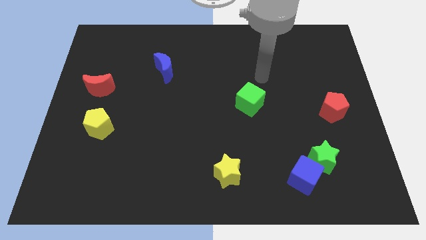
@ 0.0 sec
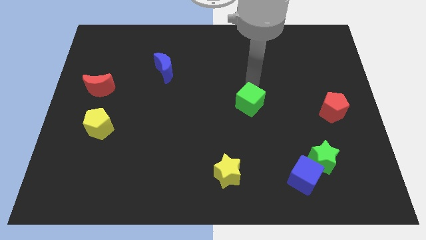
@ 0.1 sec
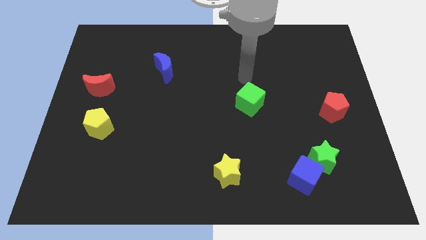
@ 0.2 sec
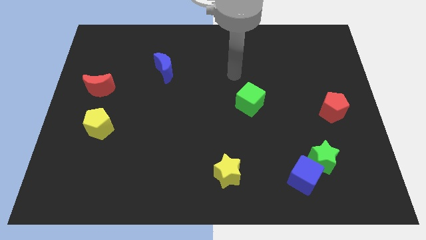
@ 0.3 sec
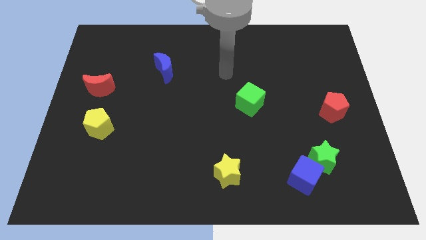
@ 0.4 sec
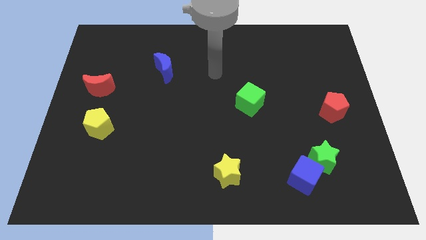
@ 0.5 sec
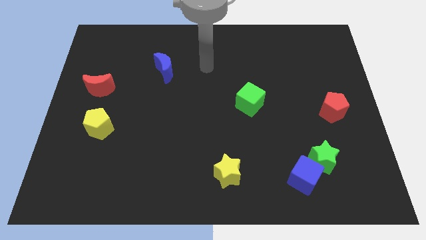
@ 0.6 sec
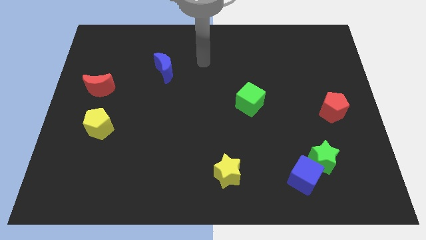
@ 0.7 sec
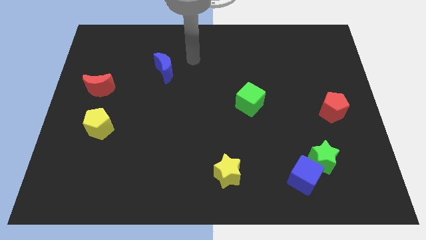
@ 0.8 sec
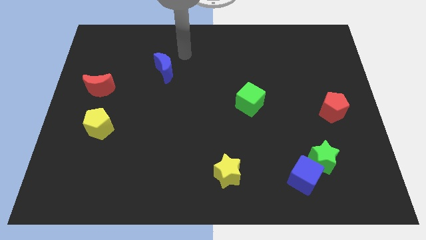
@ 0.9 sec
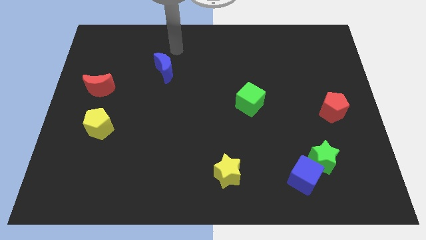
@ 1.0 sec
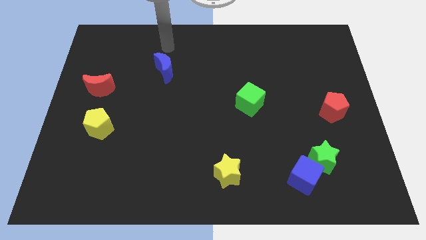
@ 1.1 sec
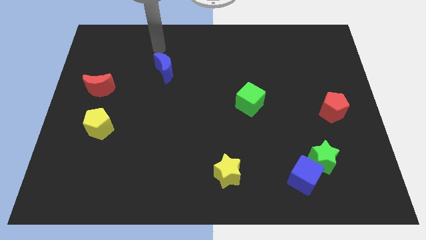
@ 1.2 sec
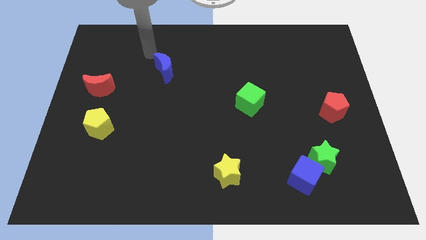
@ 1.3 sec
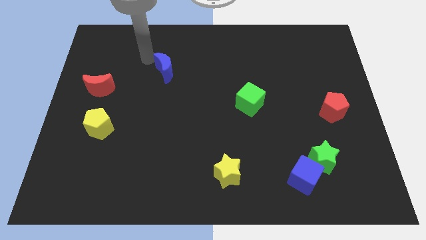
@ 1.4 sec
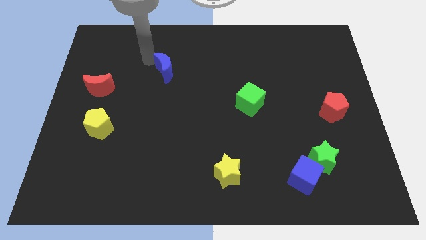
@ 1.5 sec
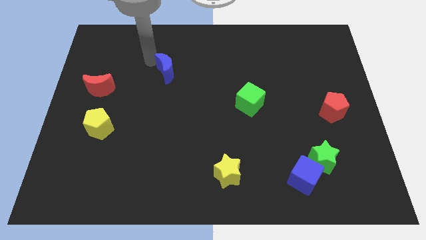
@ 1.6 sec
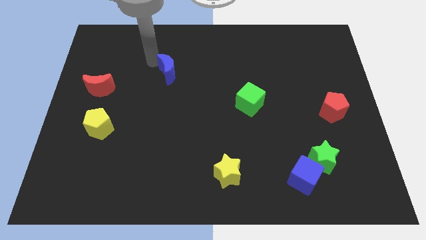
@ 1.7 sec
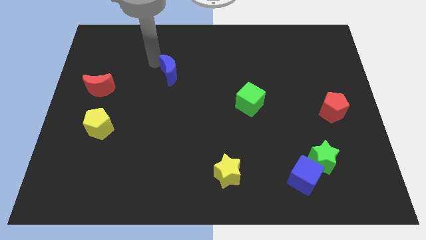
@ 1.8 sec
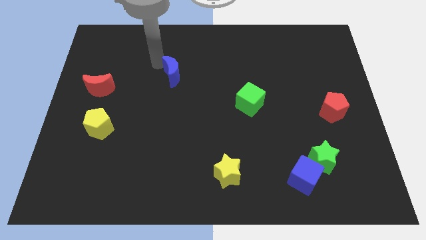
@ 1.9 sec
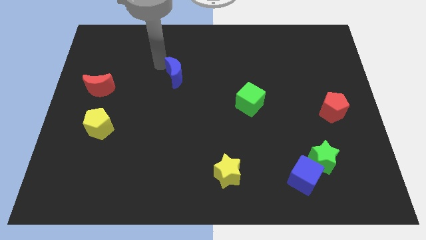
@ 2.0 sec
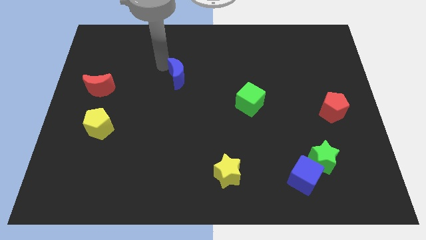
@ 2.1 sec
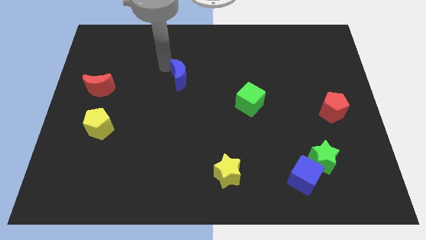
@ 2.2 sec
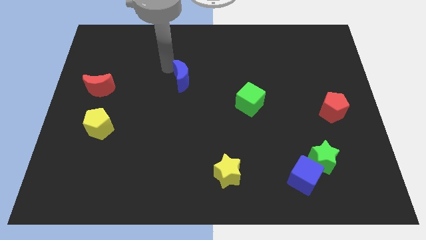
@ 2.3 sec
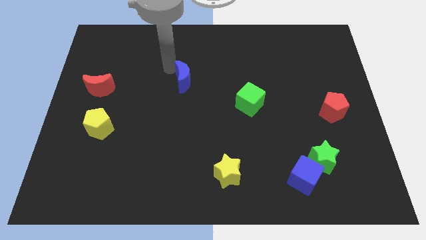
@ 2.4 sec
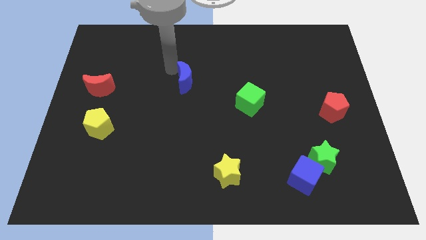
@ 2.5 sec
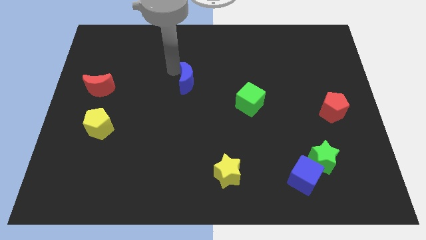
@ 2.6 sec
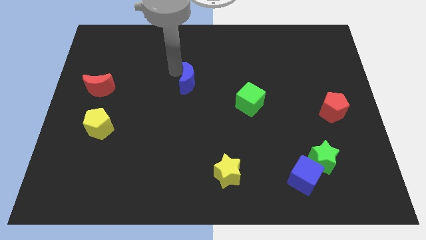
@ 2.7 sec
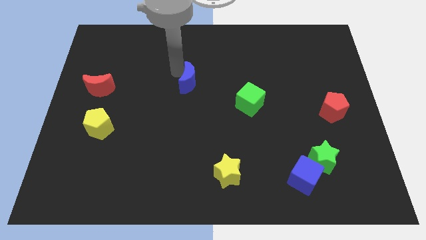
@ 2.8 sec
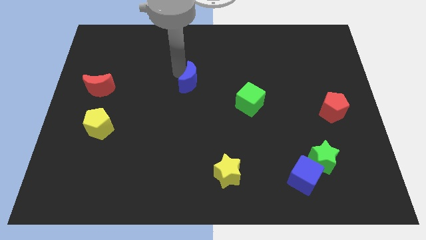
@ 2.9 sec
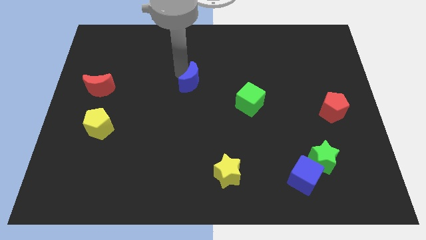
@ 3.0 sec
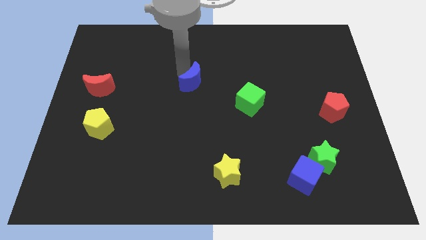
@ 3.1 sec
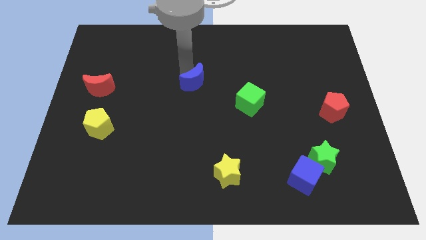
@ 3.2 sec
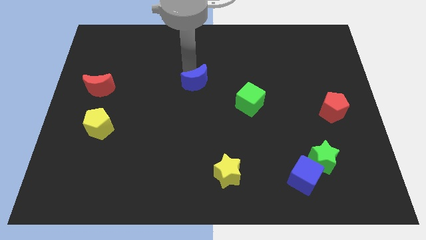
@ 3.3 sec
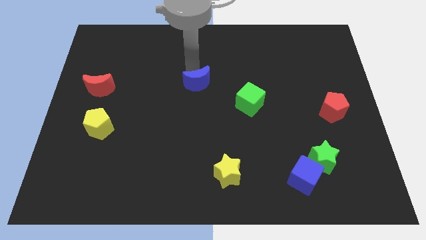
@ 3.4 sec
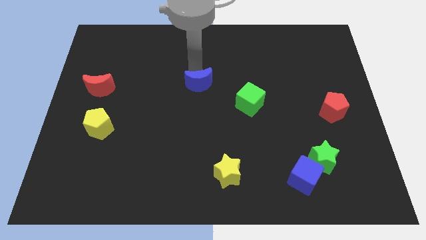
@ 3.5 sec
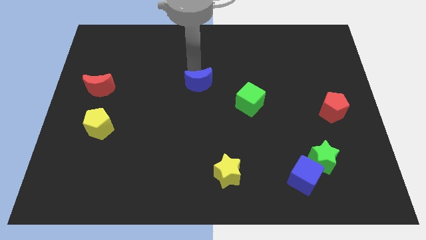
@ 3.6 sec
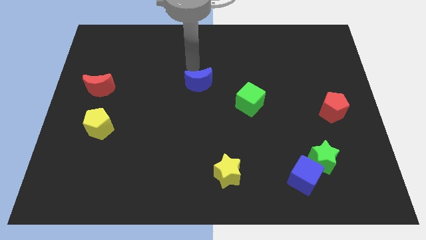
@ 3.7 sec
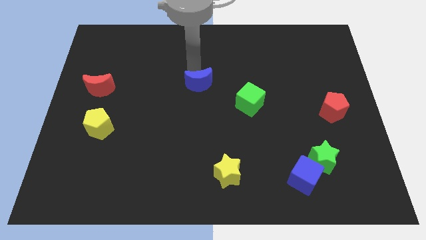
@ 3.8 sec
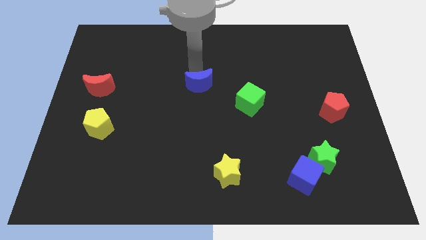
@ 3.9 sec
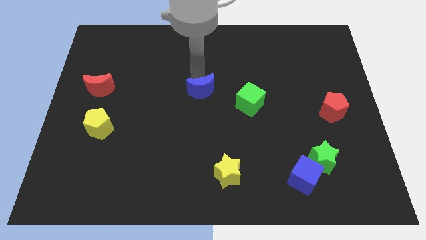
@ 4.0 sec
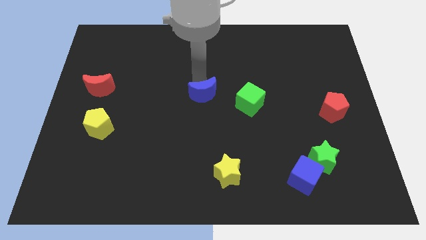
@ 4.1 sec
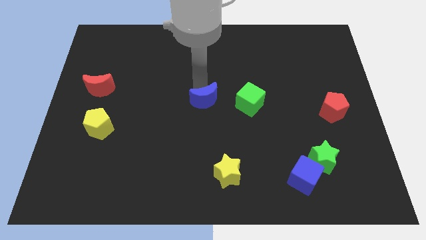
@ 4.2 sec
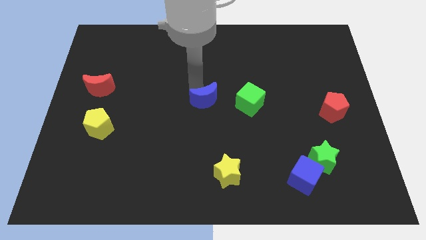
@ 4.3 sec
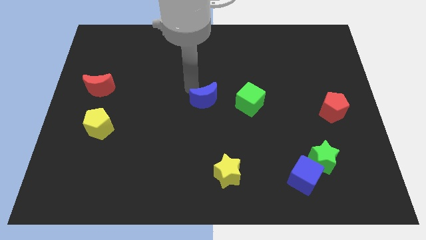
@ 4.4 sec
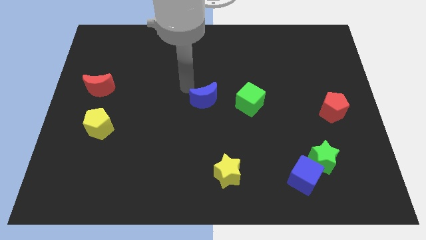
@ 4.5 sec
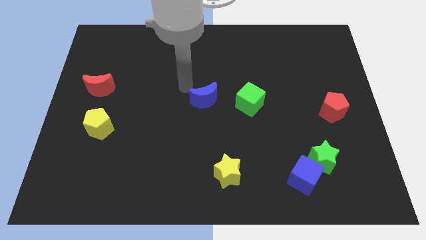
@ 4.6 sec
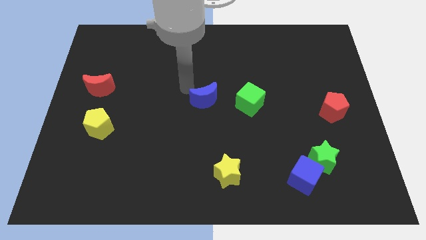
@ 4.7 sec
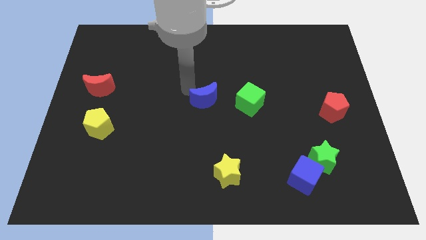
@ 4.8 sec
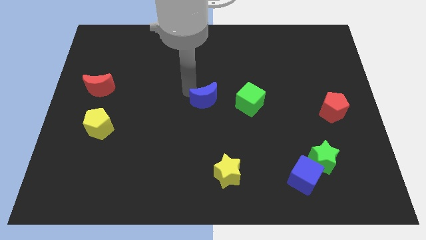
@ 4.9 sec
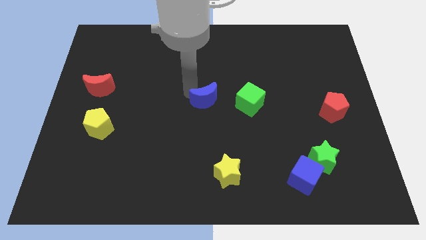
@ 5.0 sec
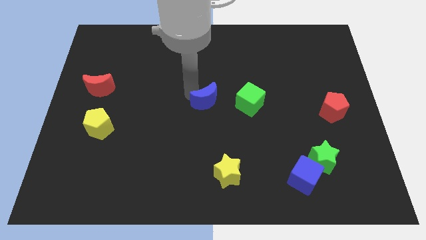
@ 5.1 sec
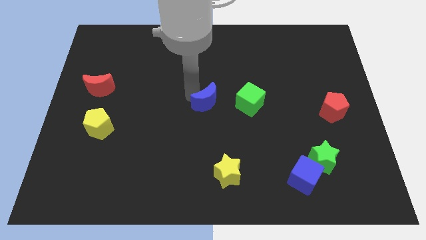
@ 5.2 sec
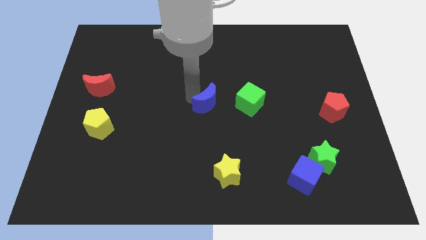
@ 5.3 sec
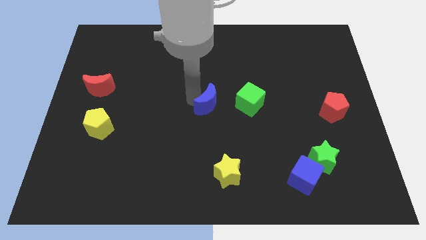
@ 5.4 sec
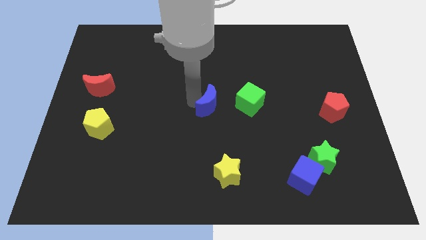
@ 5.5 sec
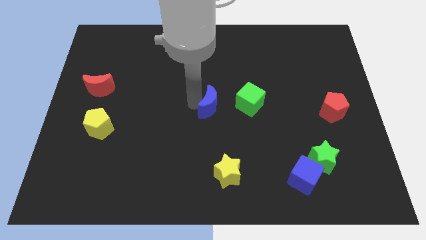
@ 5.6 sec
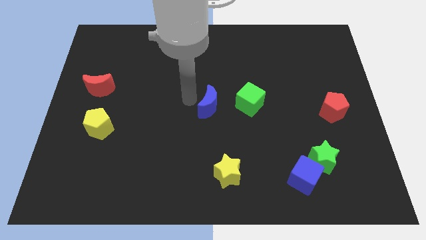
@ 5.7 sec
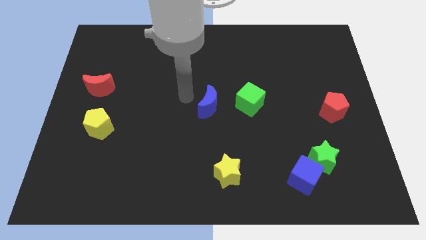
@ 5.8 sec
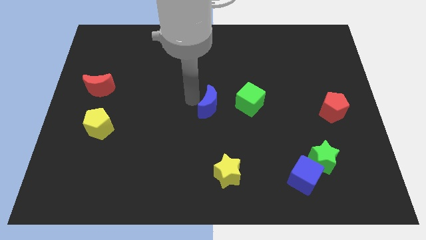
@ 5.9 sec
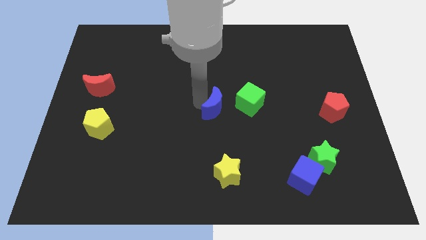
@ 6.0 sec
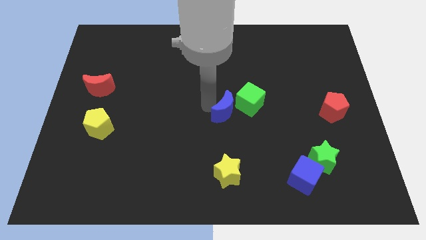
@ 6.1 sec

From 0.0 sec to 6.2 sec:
slide the blue moon downwards and then right

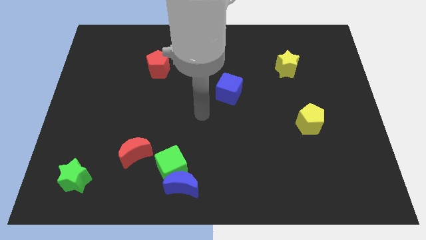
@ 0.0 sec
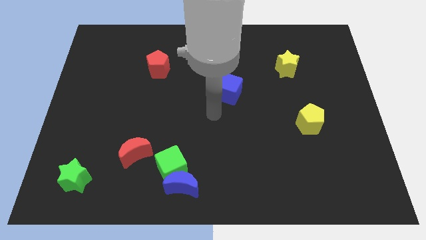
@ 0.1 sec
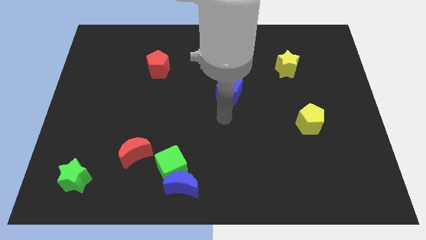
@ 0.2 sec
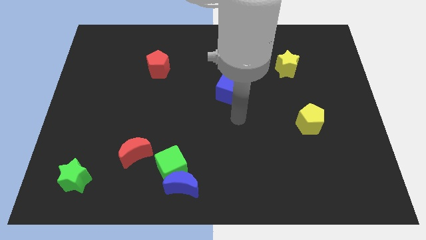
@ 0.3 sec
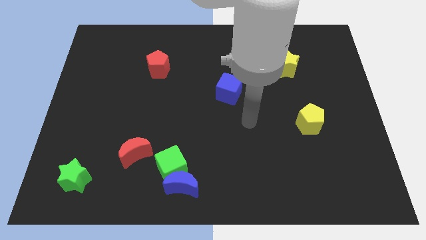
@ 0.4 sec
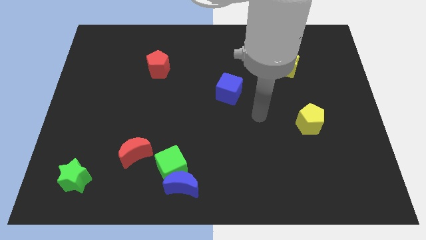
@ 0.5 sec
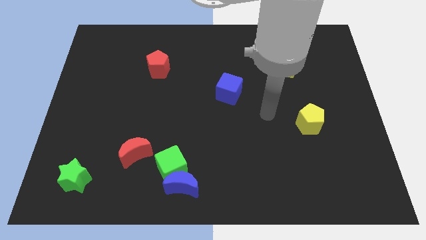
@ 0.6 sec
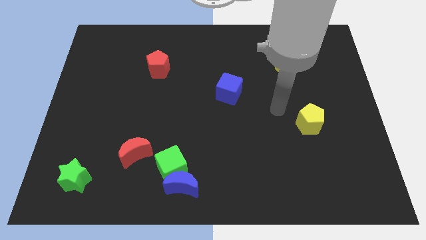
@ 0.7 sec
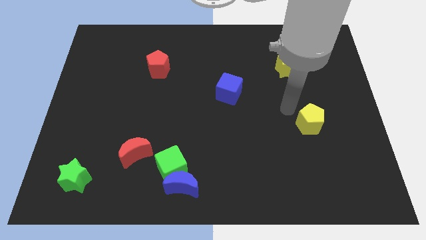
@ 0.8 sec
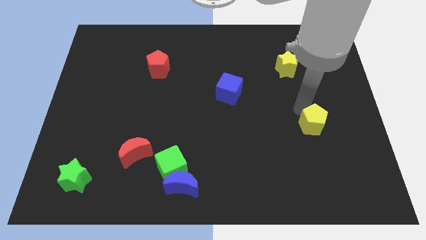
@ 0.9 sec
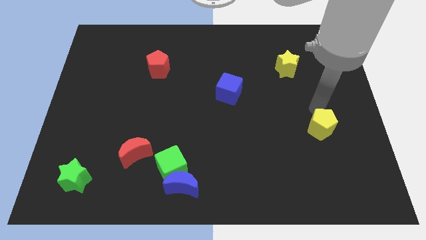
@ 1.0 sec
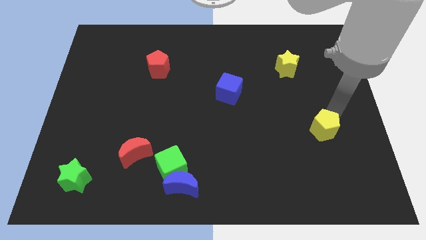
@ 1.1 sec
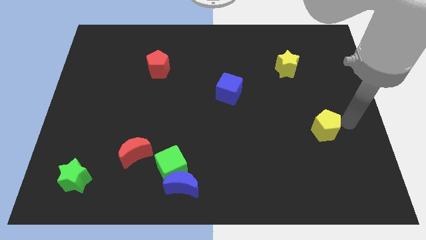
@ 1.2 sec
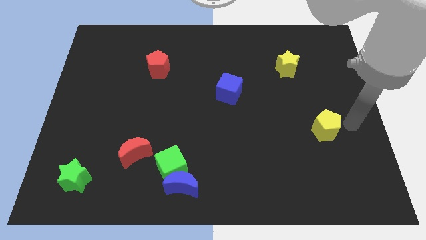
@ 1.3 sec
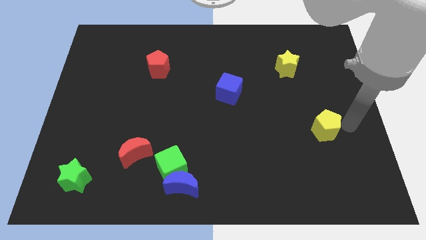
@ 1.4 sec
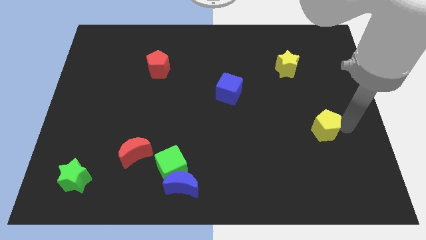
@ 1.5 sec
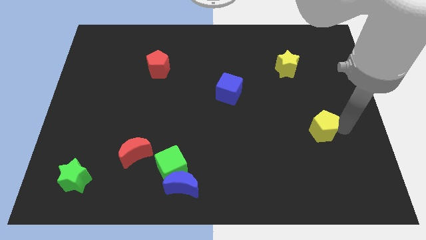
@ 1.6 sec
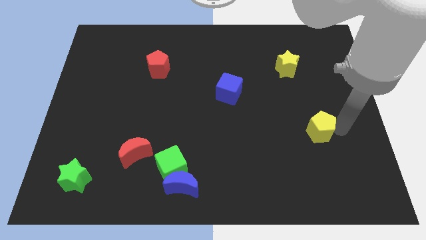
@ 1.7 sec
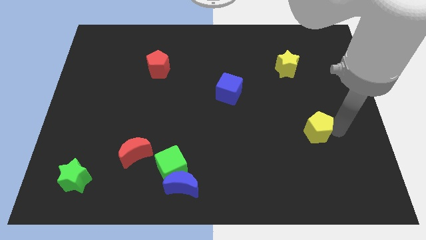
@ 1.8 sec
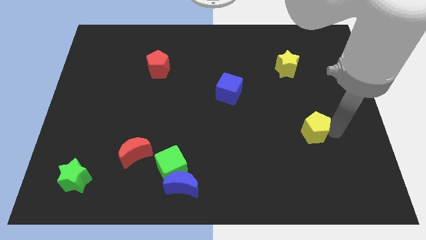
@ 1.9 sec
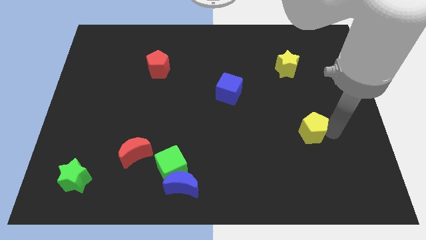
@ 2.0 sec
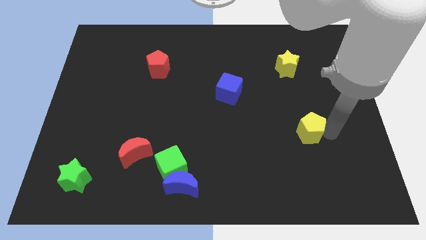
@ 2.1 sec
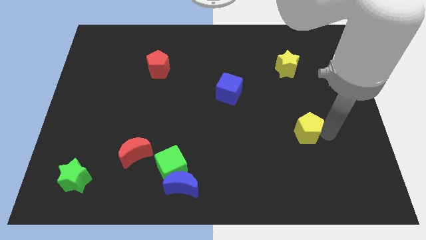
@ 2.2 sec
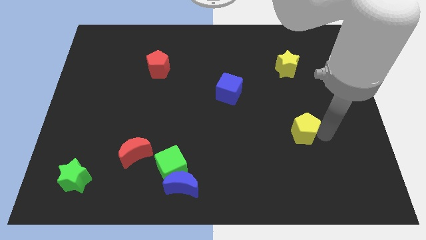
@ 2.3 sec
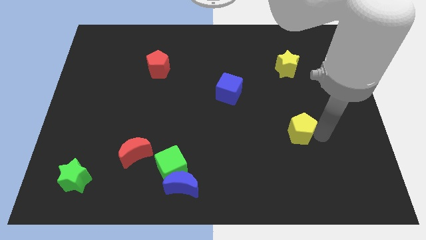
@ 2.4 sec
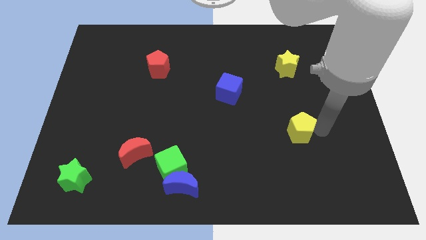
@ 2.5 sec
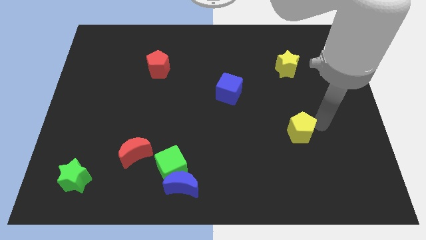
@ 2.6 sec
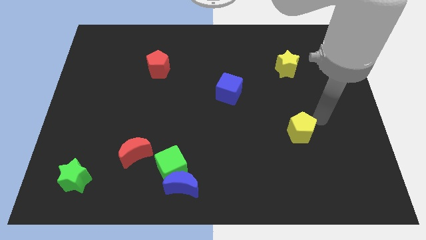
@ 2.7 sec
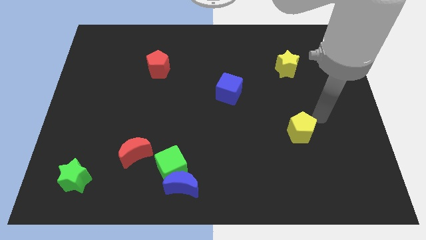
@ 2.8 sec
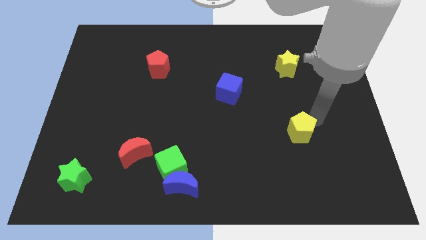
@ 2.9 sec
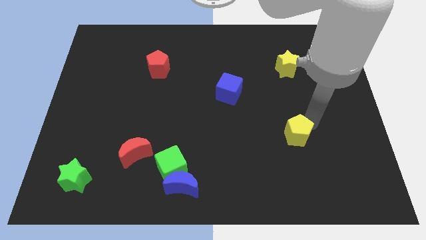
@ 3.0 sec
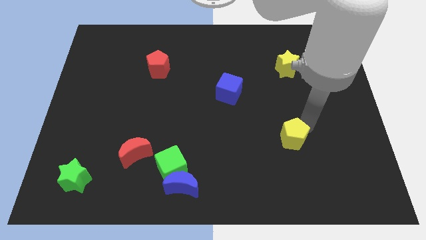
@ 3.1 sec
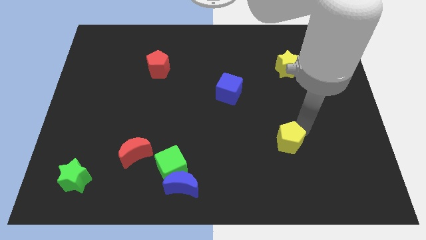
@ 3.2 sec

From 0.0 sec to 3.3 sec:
move the yellow pentagon slightly down and to the left diagonally
